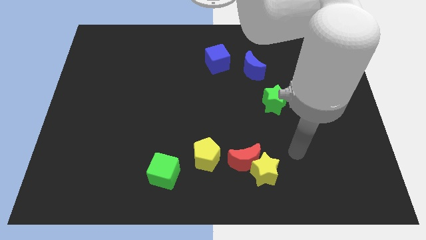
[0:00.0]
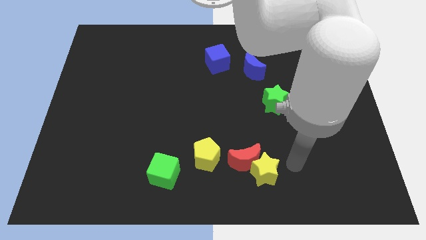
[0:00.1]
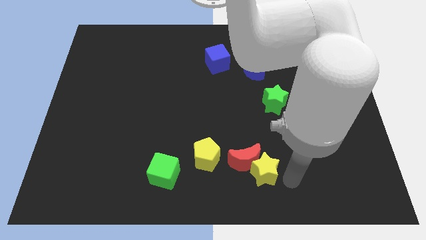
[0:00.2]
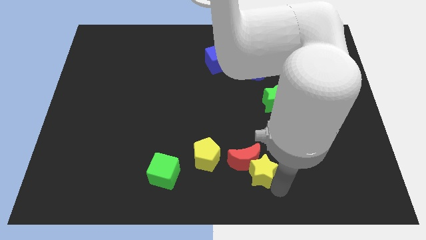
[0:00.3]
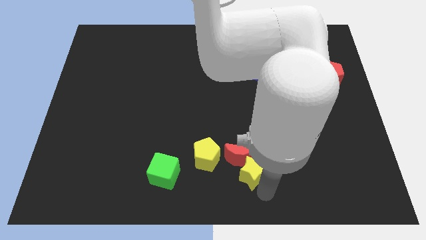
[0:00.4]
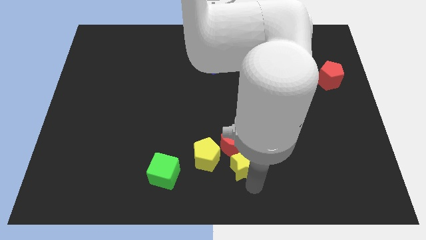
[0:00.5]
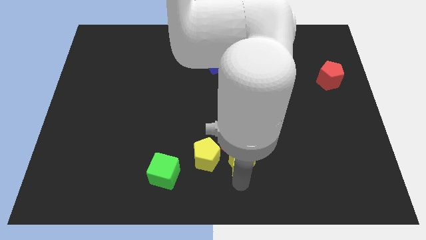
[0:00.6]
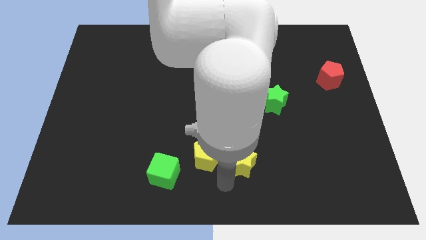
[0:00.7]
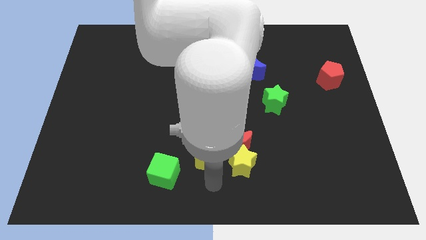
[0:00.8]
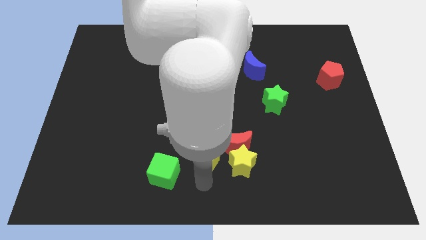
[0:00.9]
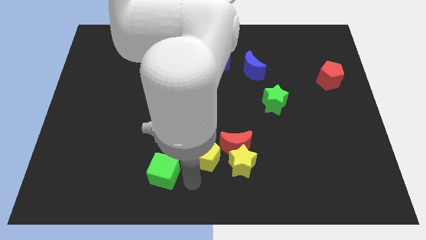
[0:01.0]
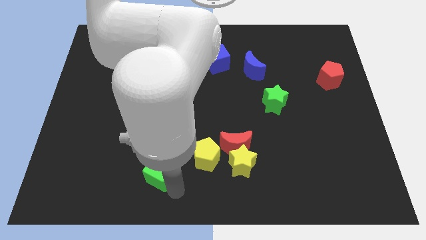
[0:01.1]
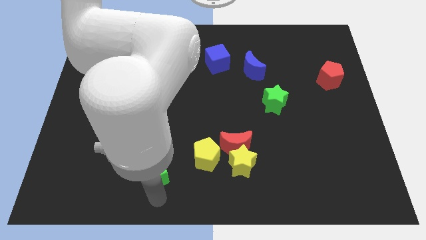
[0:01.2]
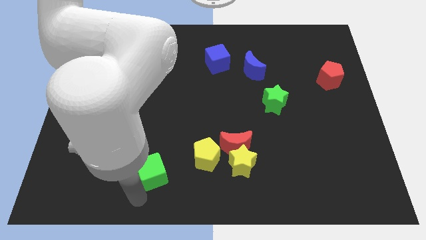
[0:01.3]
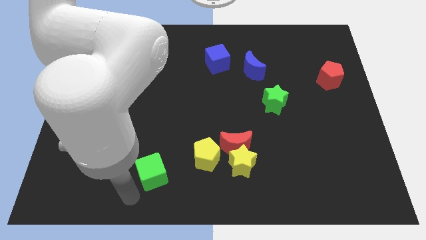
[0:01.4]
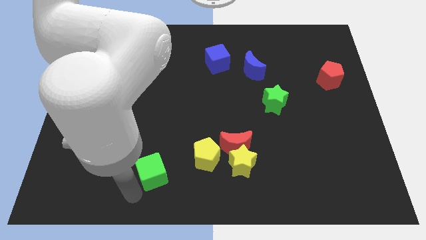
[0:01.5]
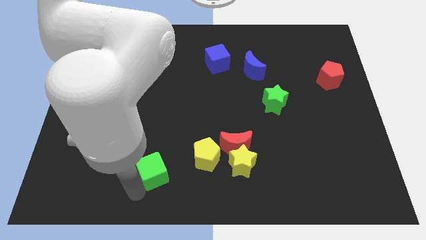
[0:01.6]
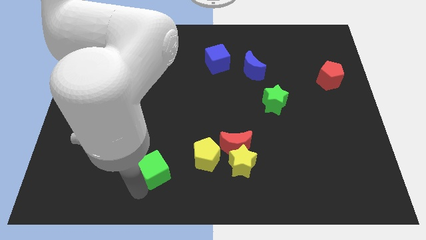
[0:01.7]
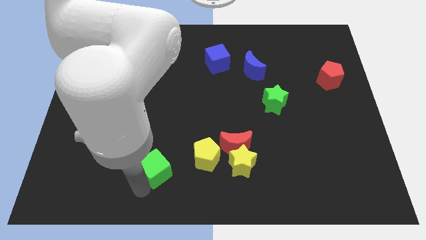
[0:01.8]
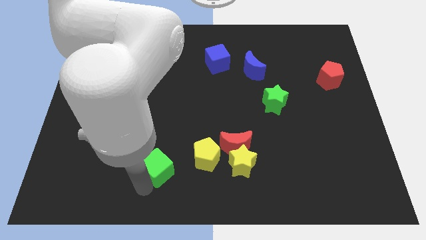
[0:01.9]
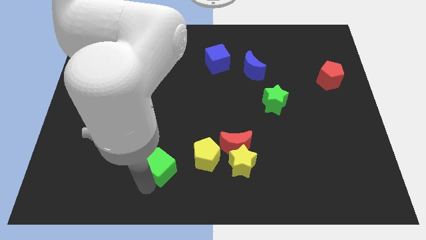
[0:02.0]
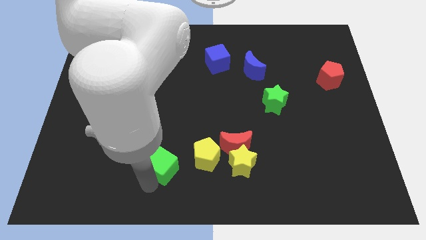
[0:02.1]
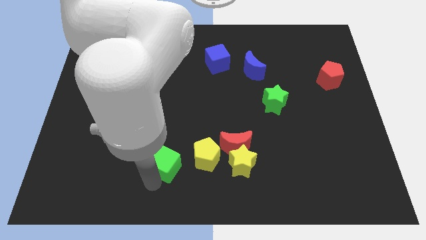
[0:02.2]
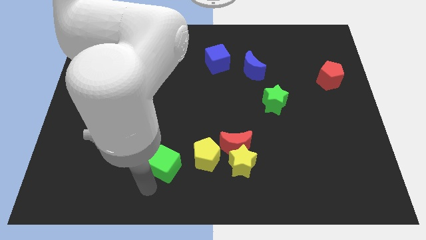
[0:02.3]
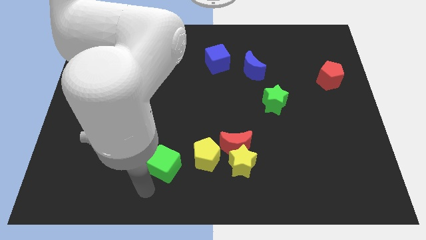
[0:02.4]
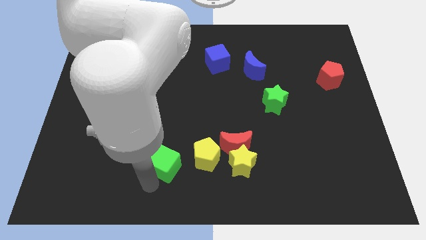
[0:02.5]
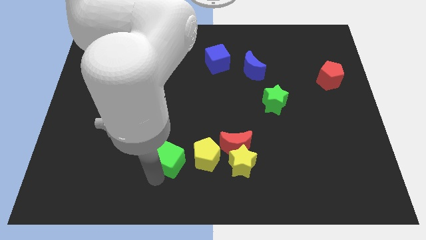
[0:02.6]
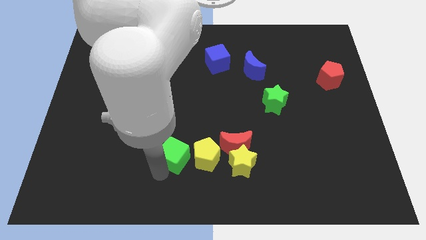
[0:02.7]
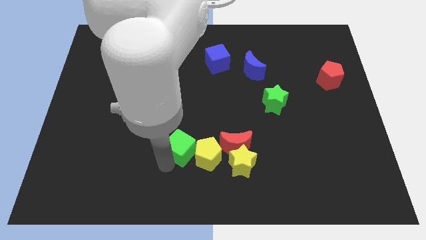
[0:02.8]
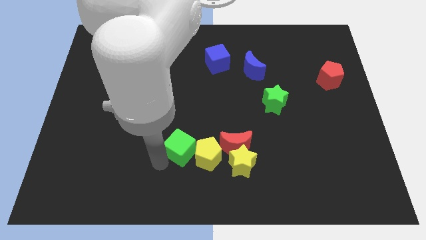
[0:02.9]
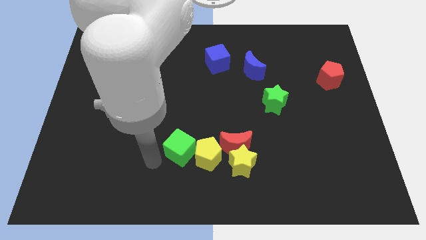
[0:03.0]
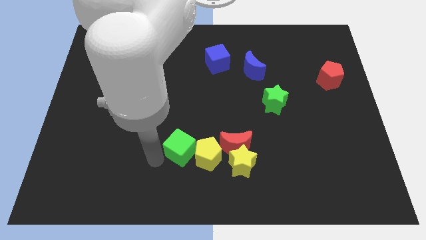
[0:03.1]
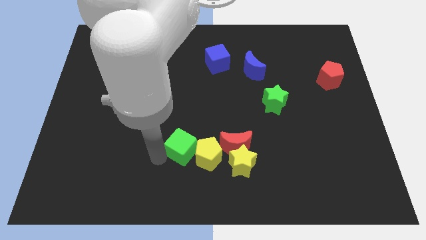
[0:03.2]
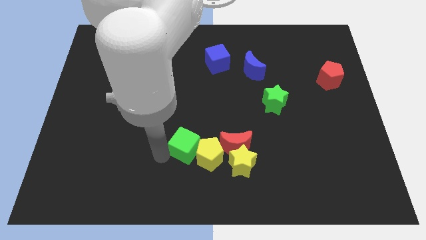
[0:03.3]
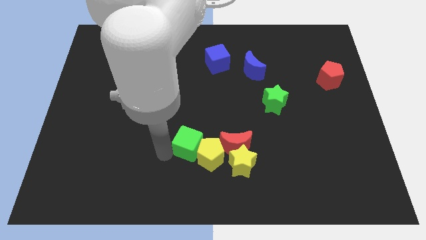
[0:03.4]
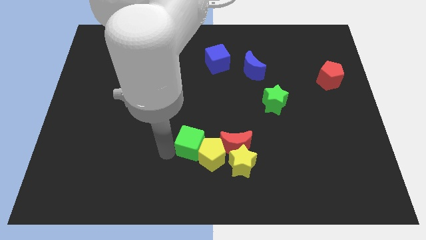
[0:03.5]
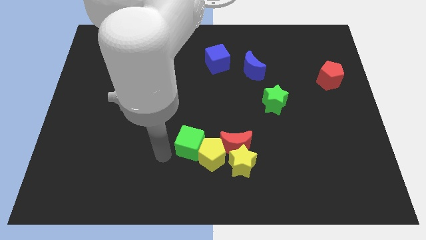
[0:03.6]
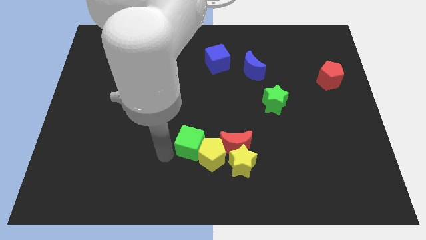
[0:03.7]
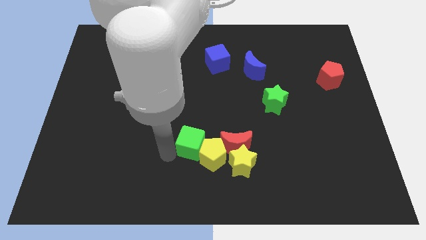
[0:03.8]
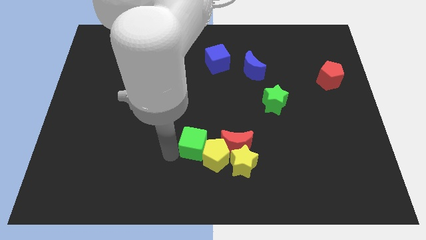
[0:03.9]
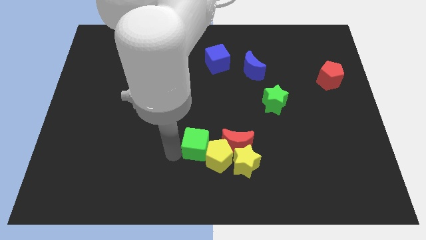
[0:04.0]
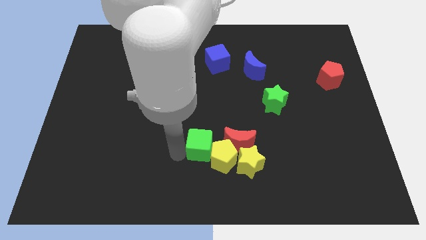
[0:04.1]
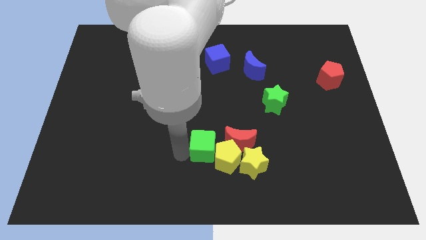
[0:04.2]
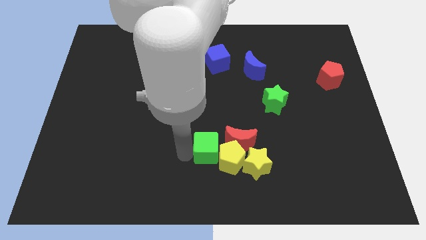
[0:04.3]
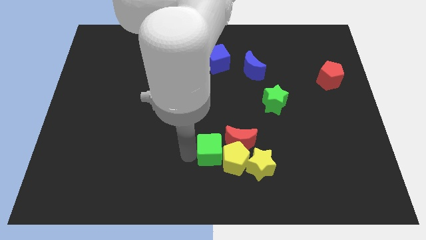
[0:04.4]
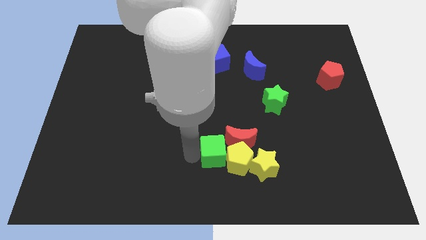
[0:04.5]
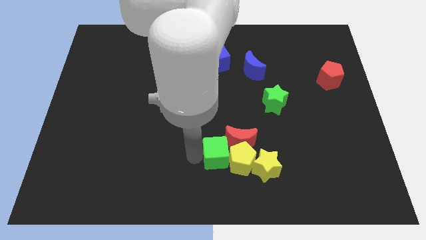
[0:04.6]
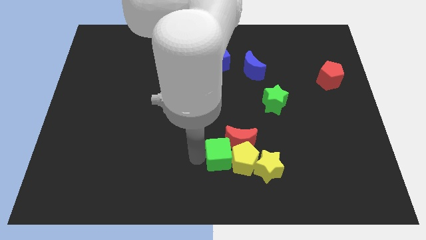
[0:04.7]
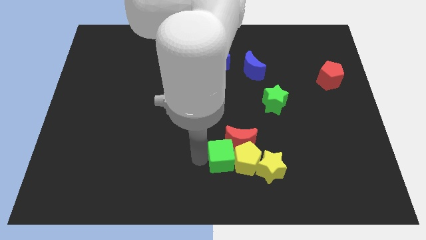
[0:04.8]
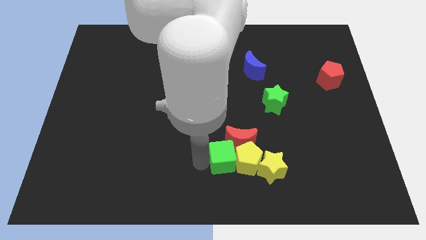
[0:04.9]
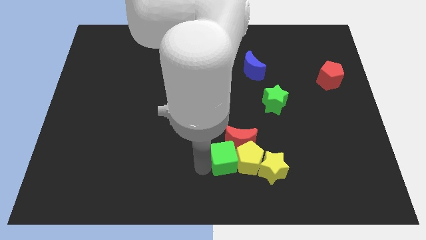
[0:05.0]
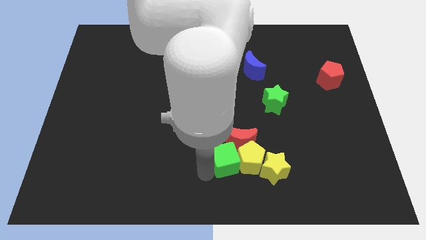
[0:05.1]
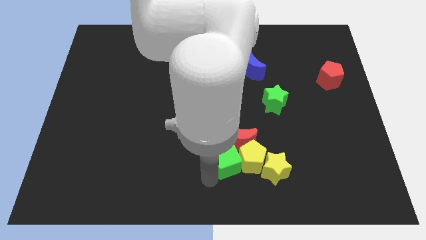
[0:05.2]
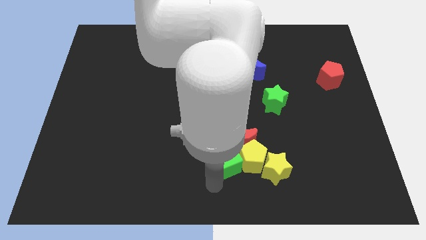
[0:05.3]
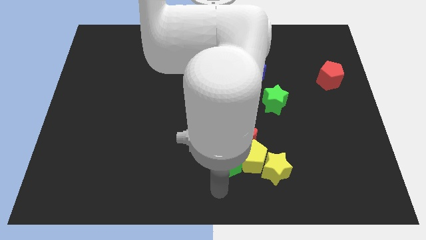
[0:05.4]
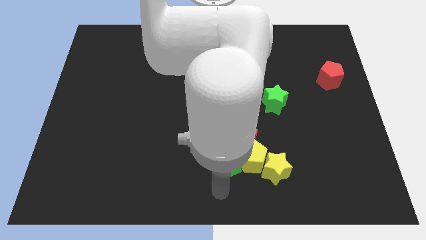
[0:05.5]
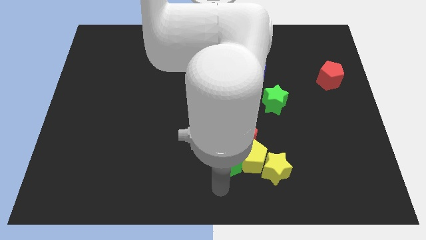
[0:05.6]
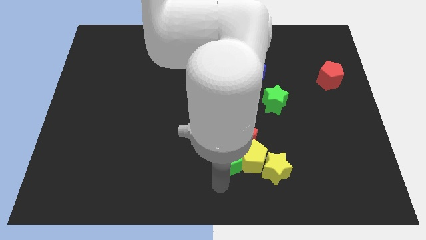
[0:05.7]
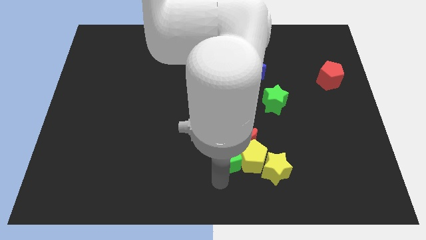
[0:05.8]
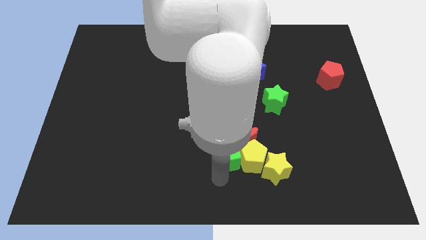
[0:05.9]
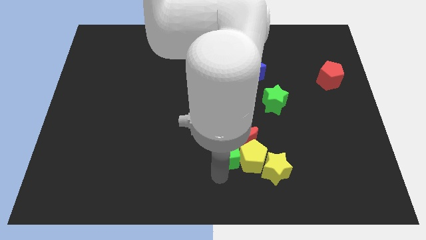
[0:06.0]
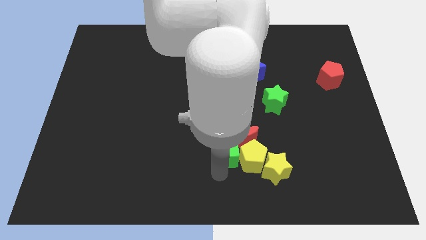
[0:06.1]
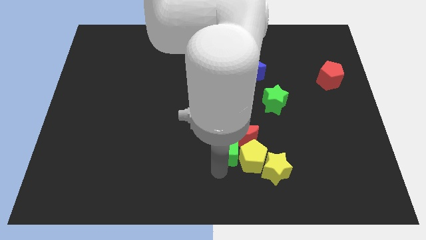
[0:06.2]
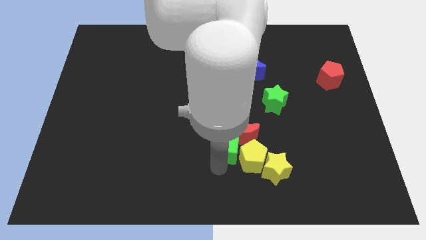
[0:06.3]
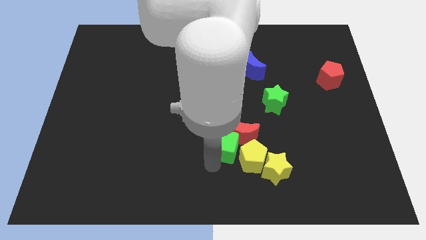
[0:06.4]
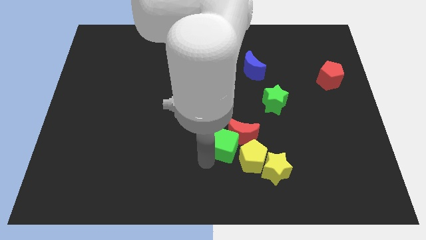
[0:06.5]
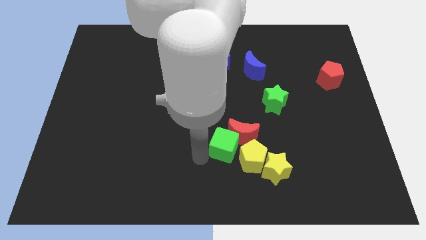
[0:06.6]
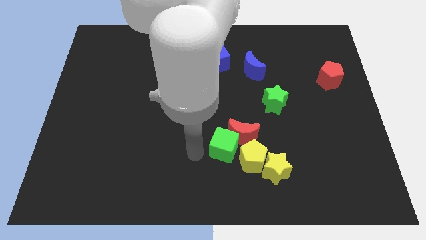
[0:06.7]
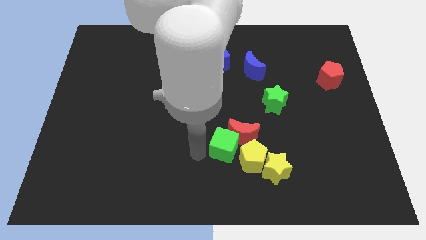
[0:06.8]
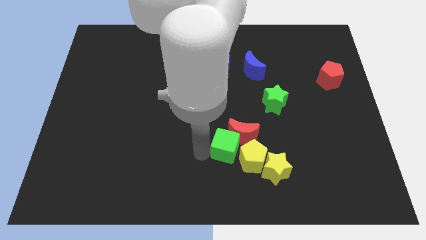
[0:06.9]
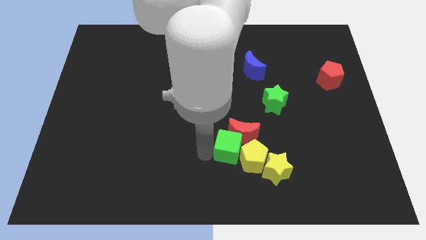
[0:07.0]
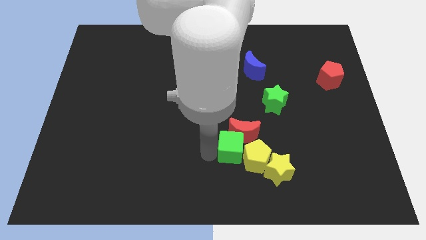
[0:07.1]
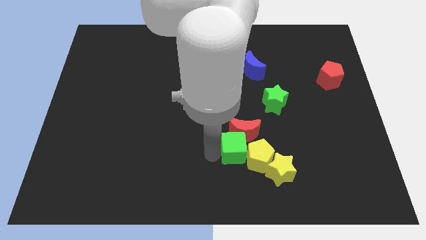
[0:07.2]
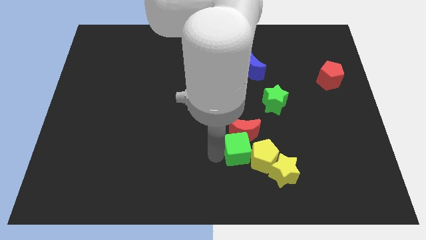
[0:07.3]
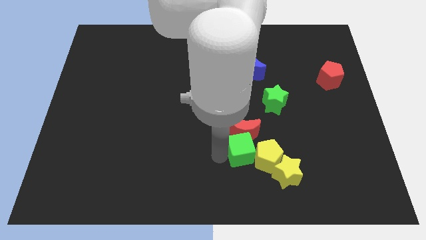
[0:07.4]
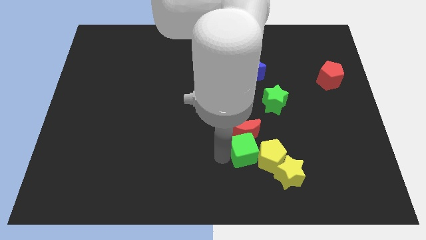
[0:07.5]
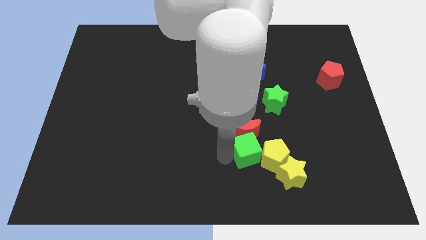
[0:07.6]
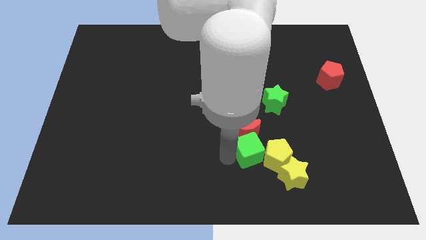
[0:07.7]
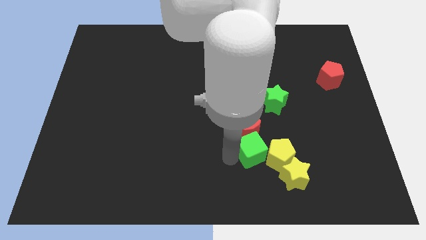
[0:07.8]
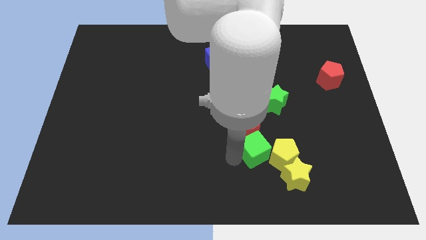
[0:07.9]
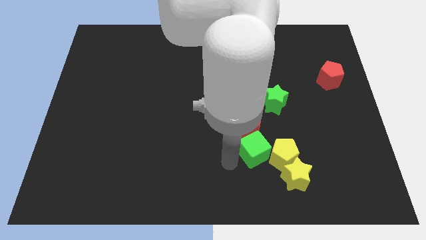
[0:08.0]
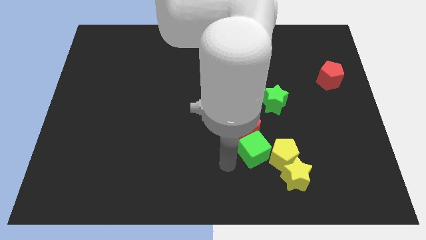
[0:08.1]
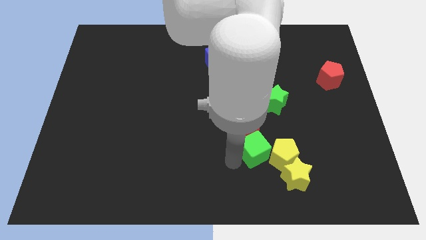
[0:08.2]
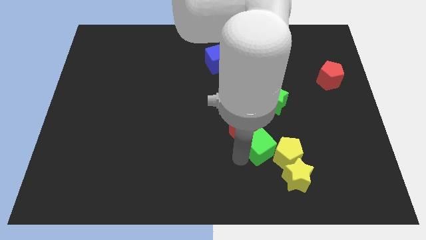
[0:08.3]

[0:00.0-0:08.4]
put the green cube to the bottom side of the green star
